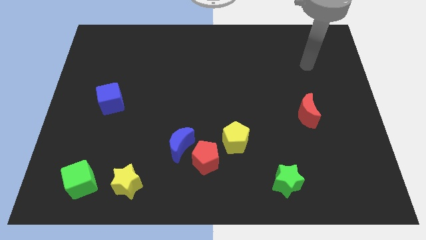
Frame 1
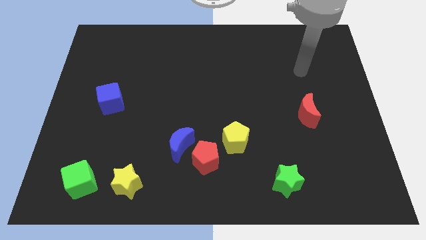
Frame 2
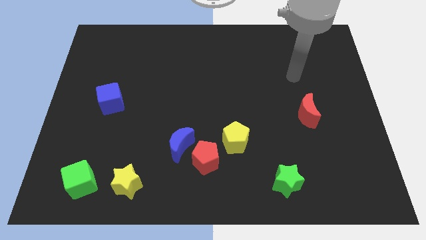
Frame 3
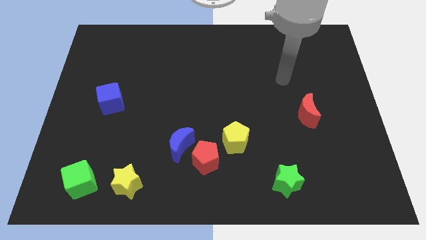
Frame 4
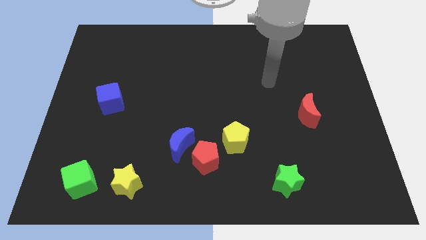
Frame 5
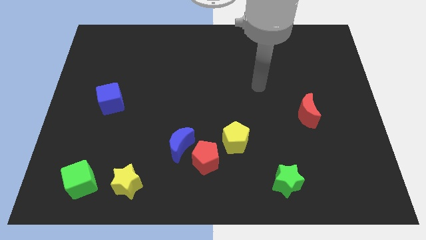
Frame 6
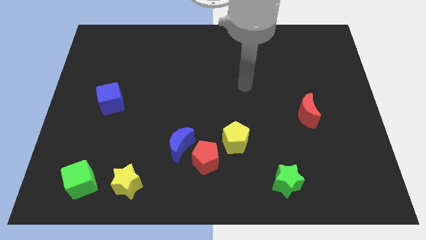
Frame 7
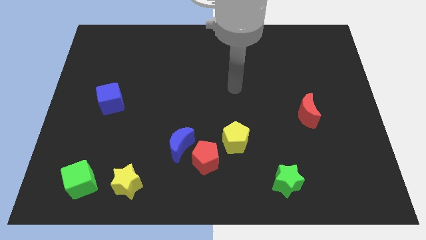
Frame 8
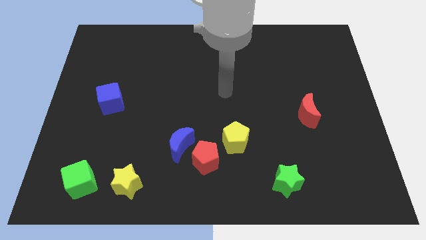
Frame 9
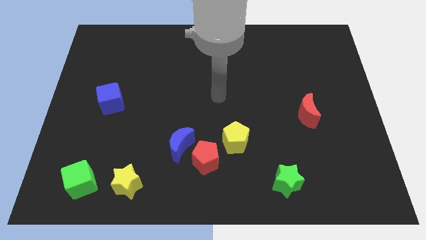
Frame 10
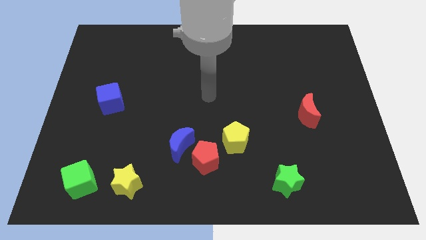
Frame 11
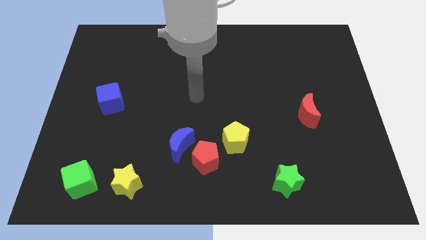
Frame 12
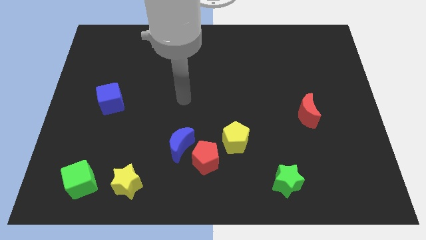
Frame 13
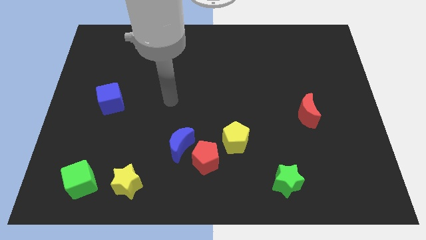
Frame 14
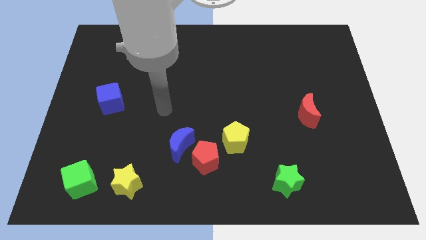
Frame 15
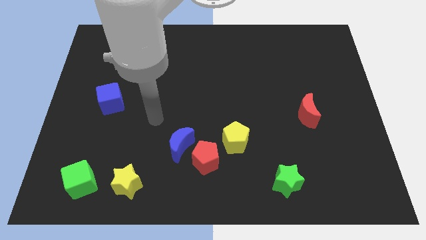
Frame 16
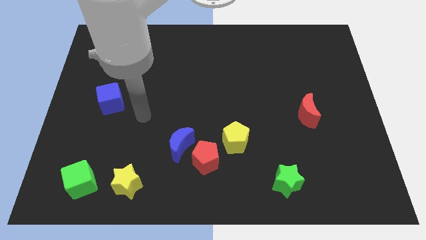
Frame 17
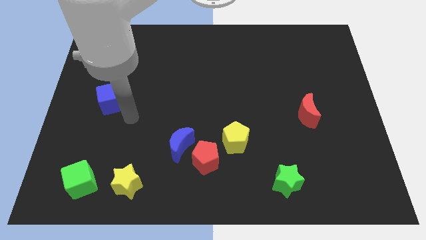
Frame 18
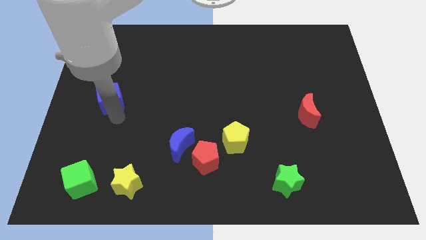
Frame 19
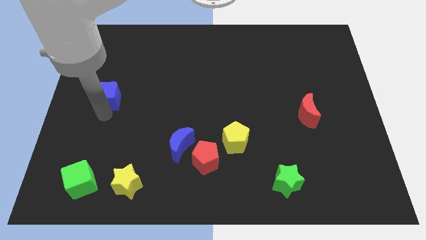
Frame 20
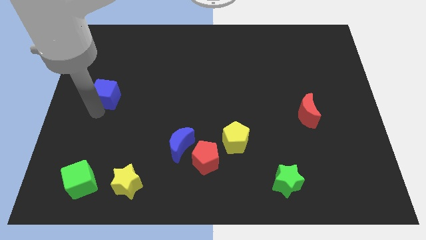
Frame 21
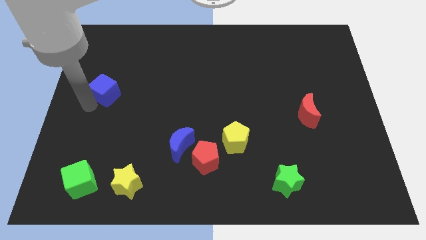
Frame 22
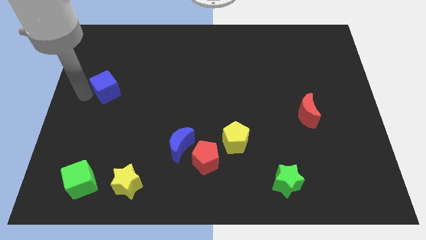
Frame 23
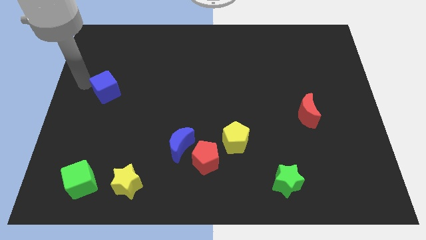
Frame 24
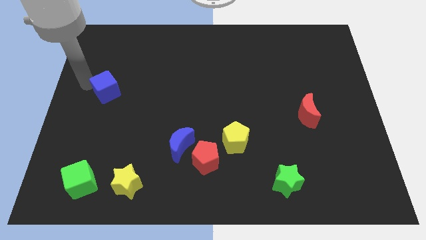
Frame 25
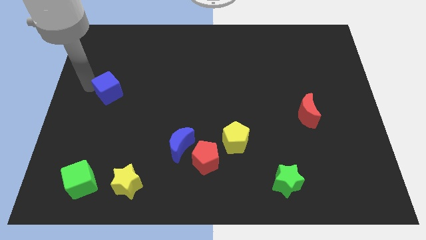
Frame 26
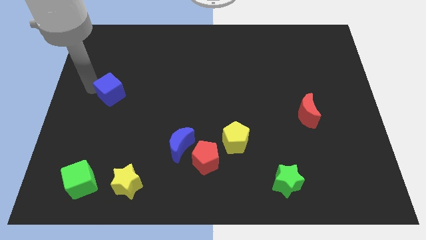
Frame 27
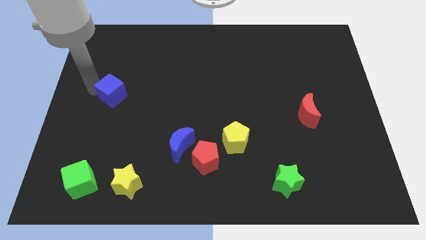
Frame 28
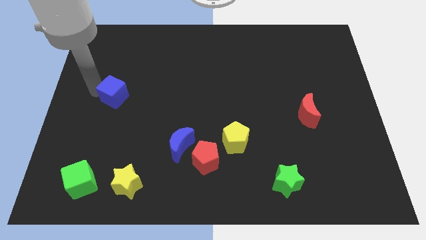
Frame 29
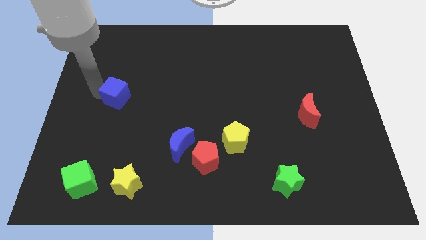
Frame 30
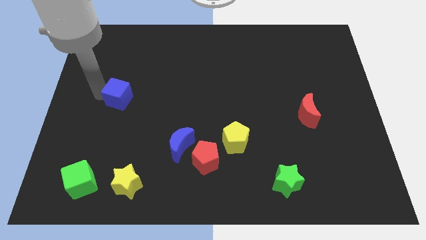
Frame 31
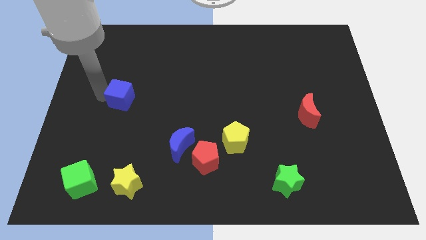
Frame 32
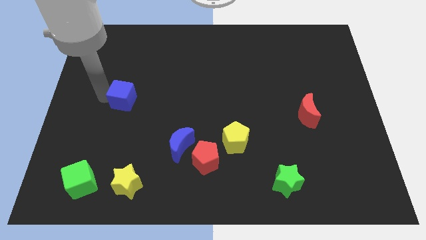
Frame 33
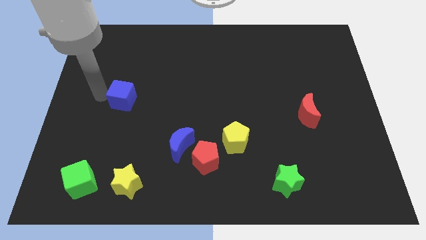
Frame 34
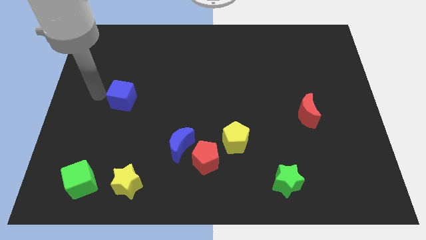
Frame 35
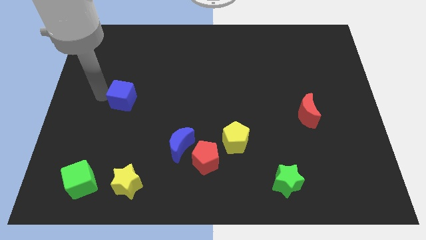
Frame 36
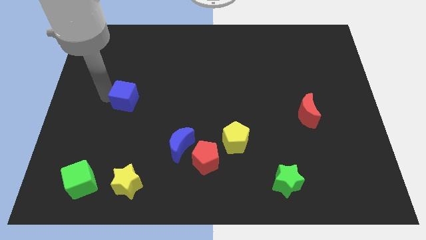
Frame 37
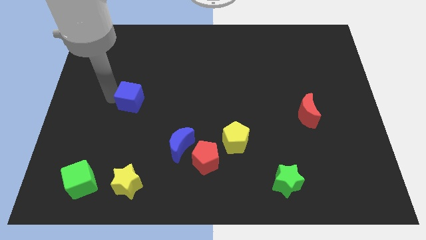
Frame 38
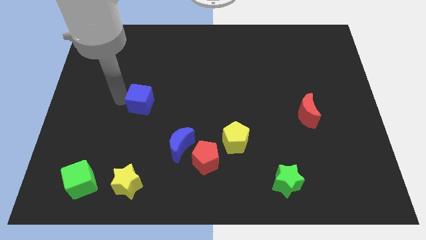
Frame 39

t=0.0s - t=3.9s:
slide the blue cube somewhat to the right

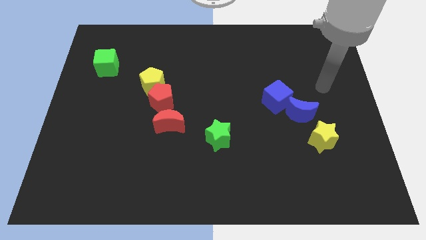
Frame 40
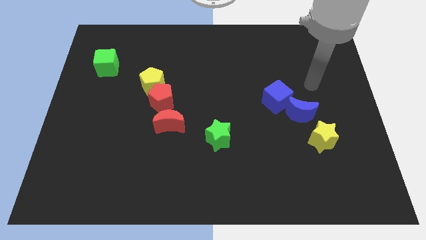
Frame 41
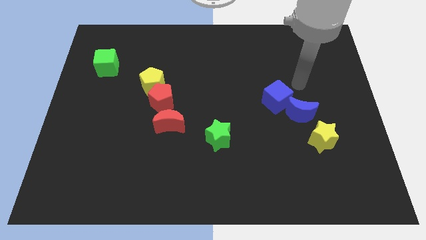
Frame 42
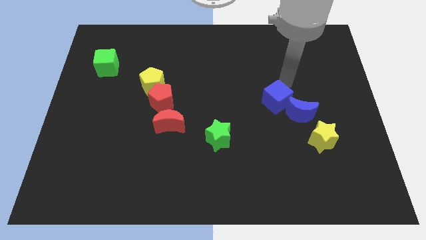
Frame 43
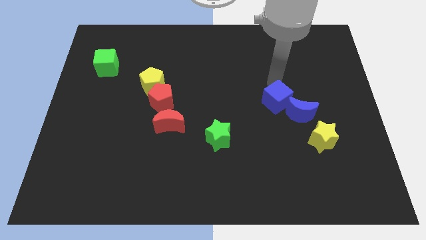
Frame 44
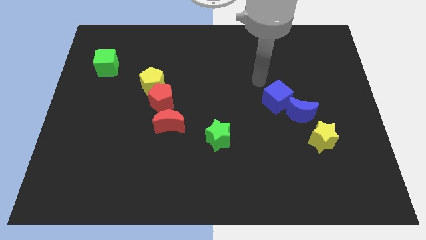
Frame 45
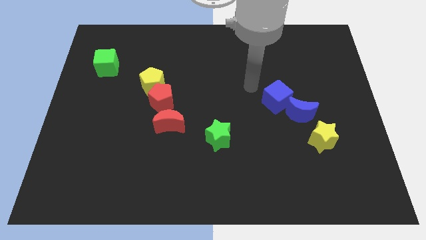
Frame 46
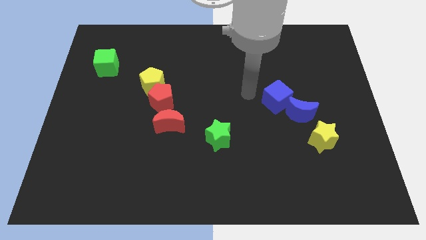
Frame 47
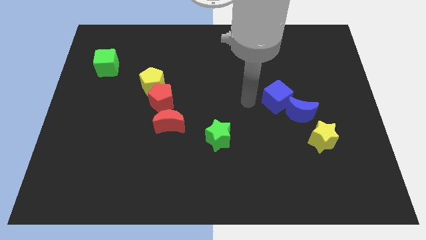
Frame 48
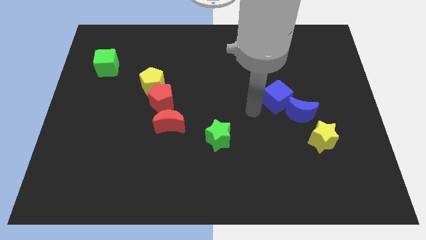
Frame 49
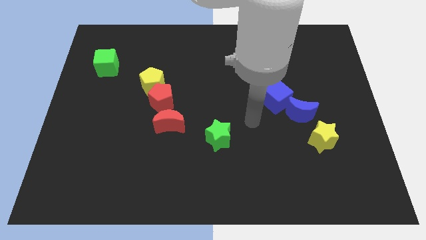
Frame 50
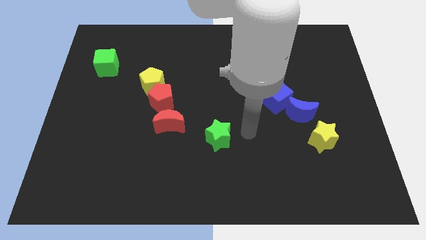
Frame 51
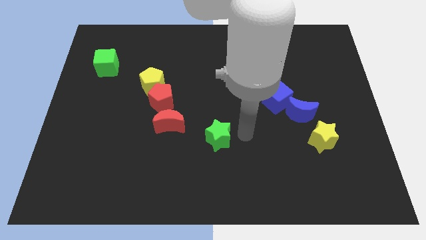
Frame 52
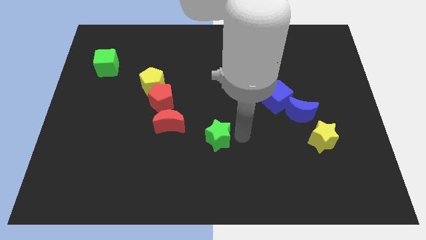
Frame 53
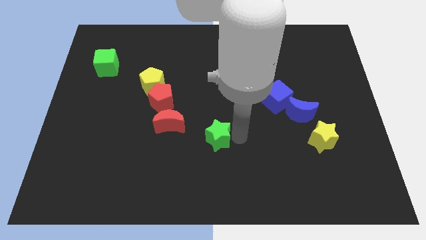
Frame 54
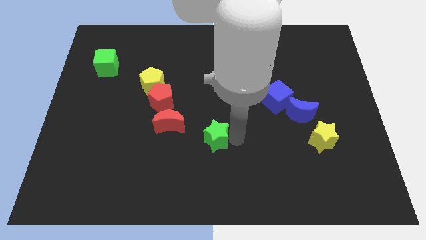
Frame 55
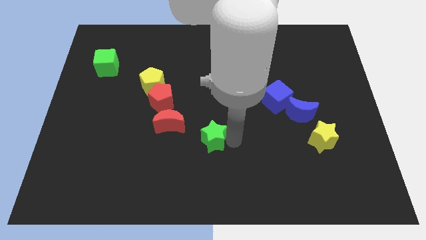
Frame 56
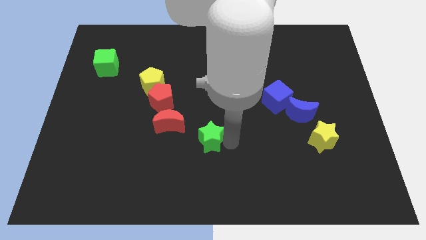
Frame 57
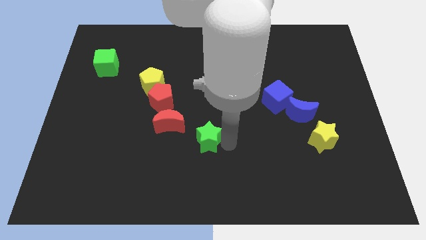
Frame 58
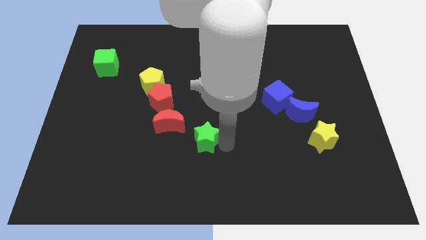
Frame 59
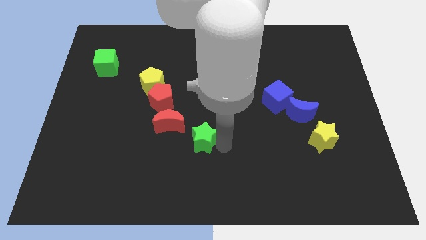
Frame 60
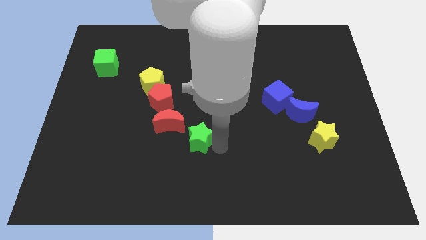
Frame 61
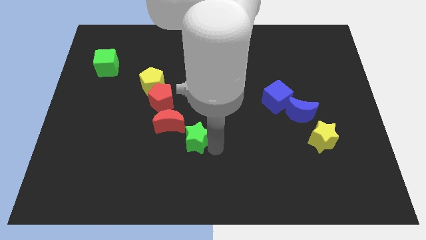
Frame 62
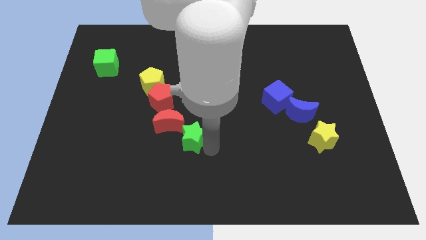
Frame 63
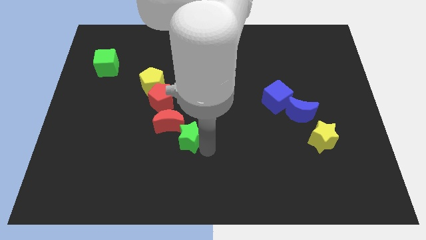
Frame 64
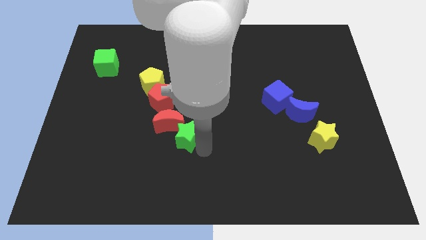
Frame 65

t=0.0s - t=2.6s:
push the green star a bit left

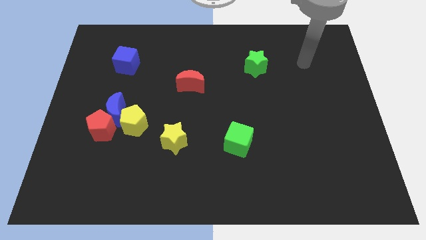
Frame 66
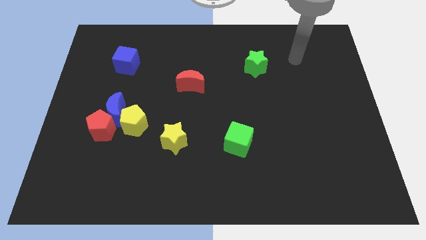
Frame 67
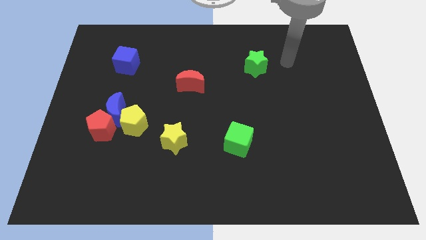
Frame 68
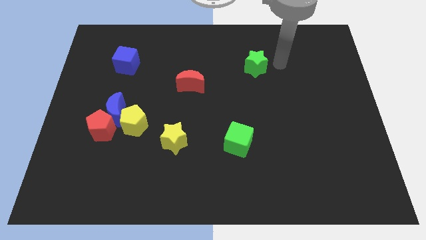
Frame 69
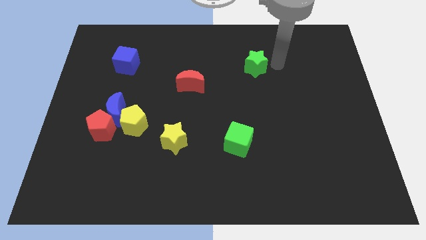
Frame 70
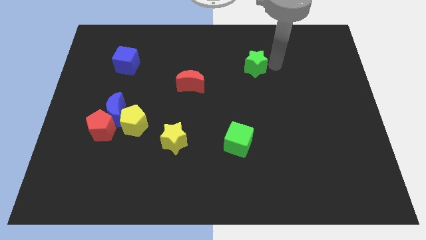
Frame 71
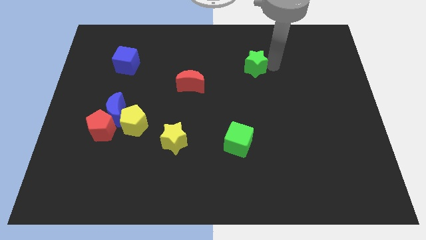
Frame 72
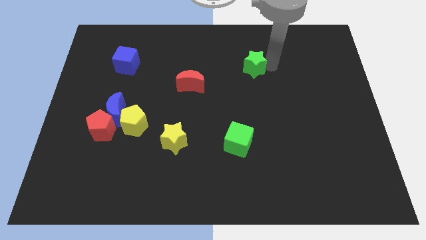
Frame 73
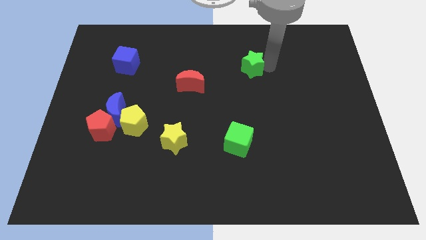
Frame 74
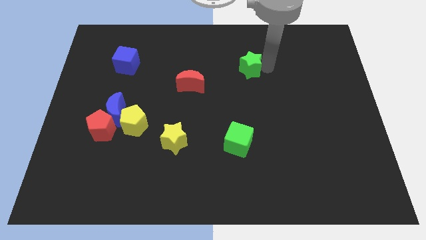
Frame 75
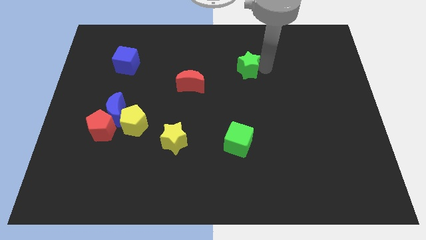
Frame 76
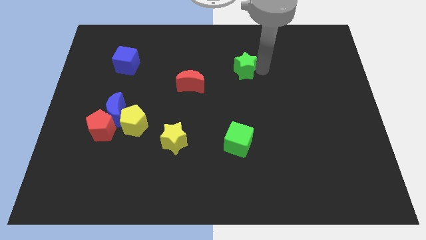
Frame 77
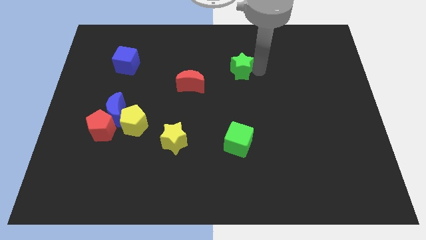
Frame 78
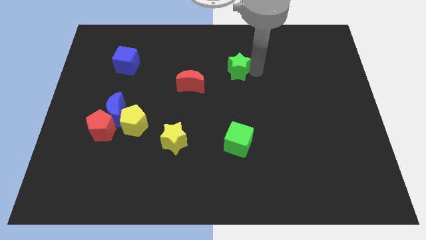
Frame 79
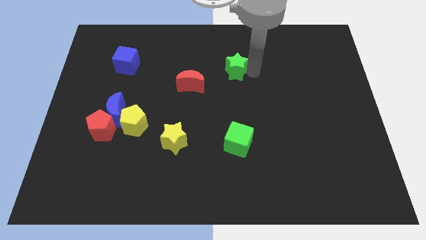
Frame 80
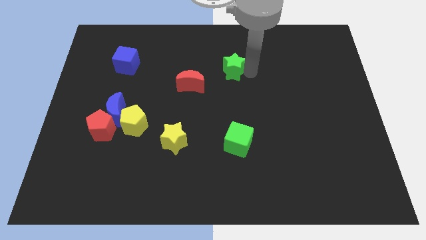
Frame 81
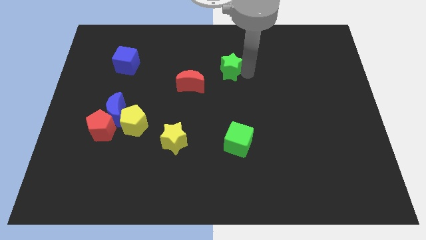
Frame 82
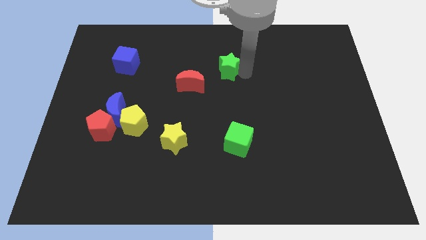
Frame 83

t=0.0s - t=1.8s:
move the green star a little to the left
